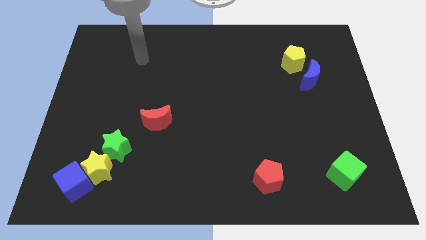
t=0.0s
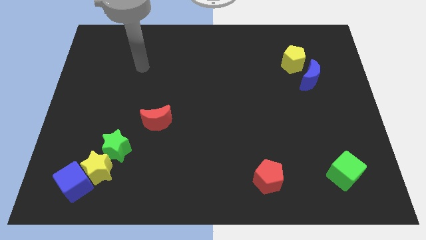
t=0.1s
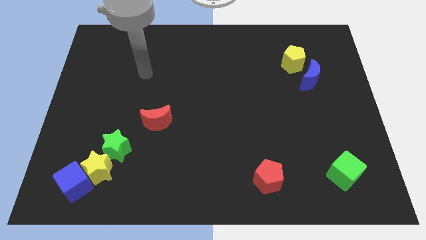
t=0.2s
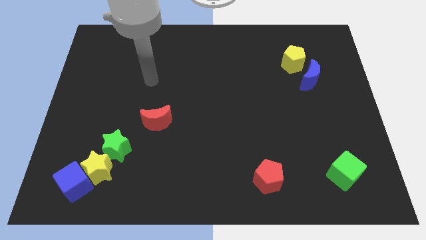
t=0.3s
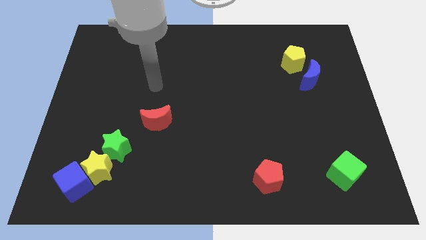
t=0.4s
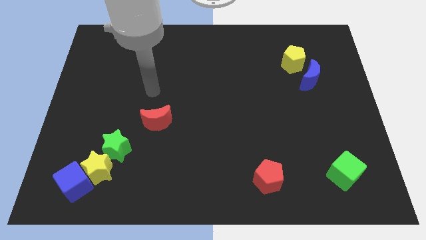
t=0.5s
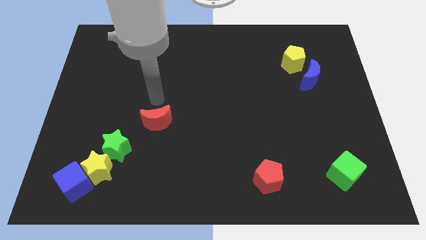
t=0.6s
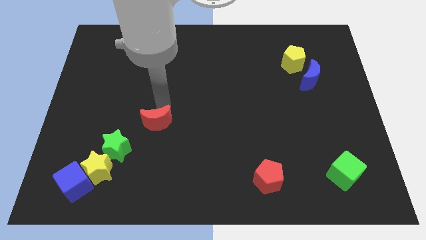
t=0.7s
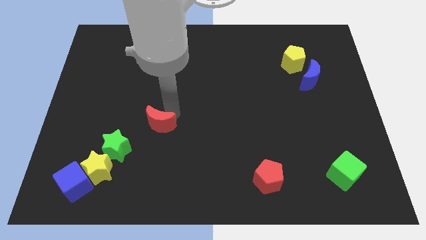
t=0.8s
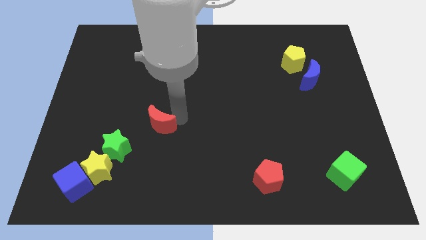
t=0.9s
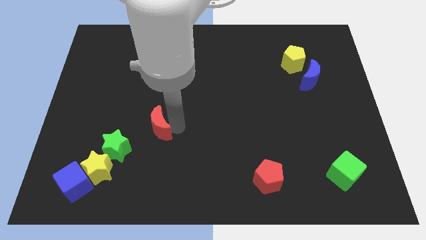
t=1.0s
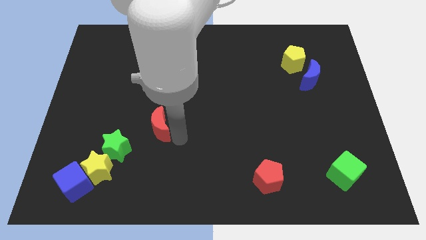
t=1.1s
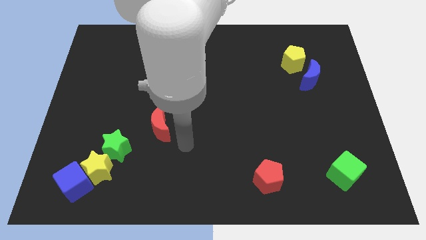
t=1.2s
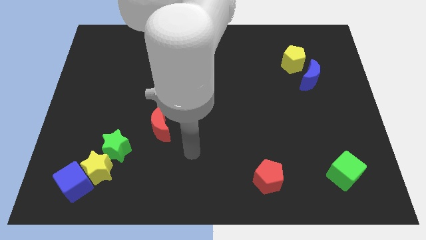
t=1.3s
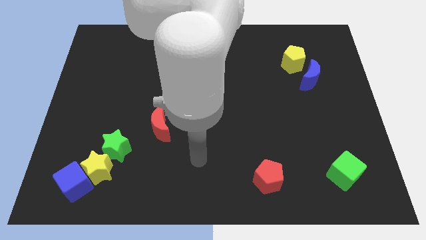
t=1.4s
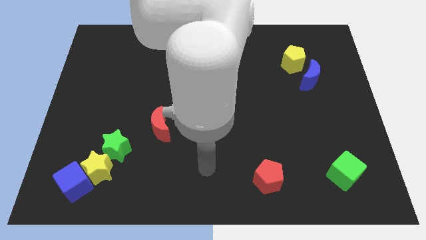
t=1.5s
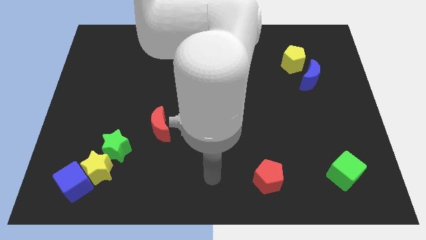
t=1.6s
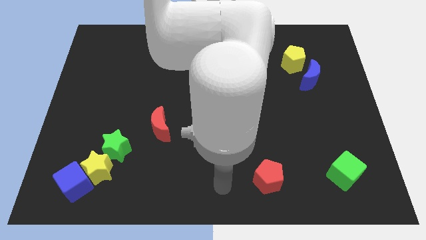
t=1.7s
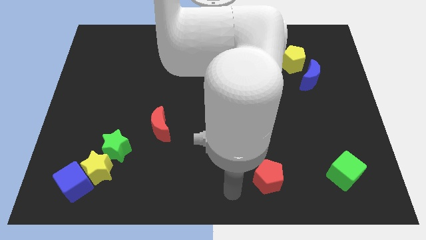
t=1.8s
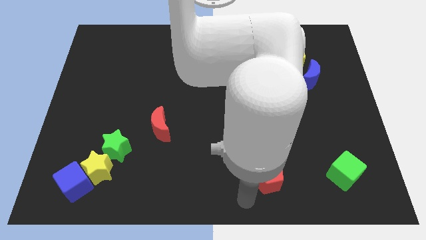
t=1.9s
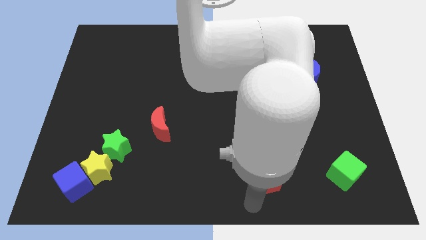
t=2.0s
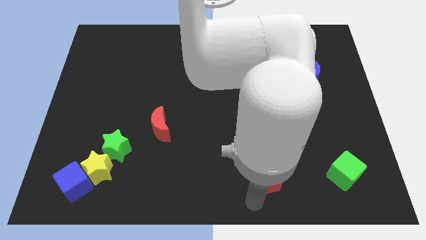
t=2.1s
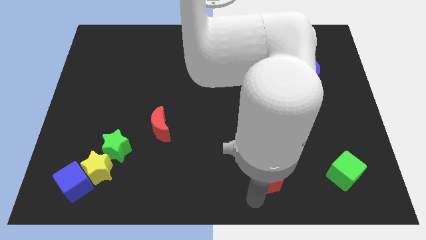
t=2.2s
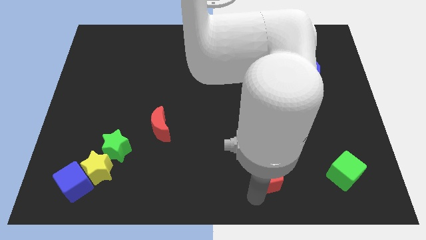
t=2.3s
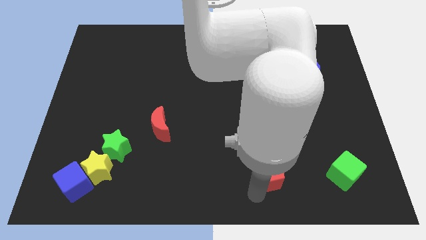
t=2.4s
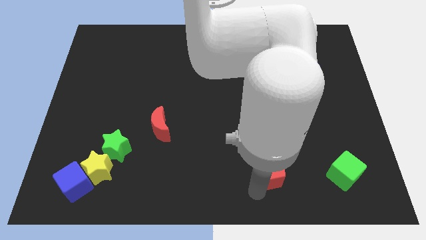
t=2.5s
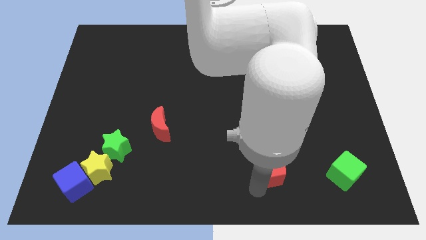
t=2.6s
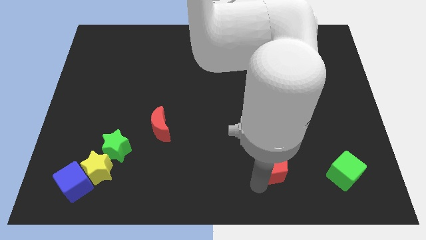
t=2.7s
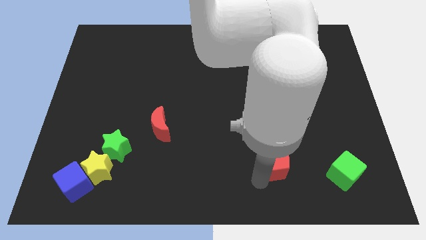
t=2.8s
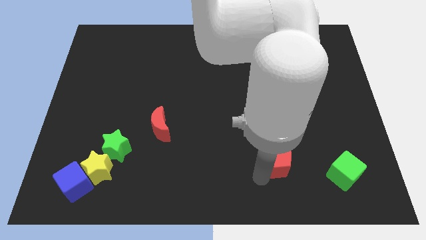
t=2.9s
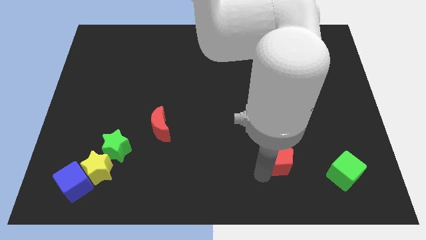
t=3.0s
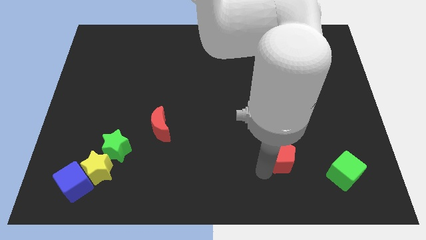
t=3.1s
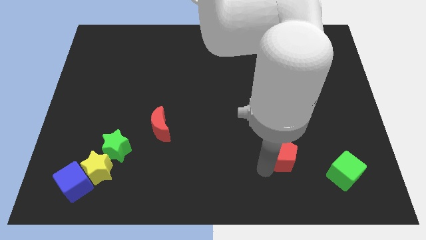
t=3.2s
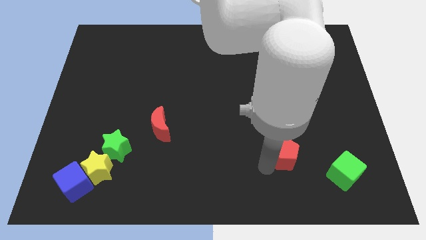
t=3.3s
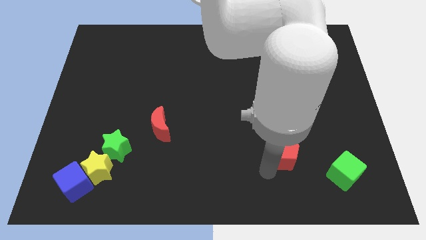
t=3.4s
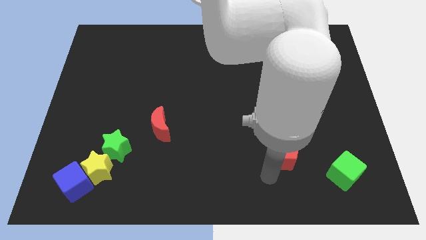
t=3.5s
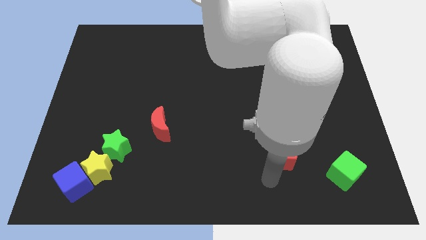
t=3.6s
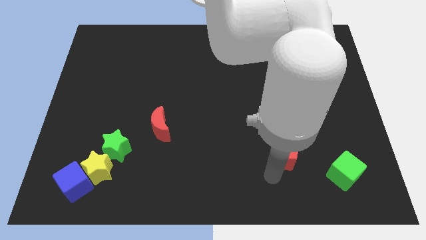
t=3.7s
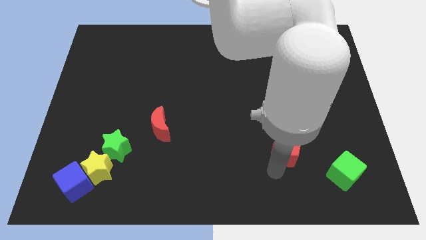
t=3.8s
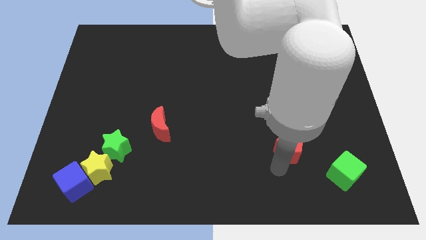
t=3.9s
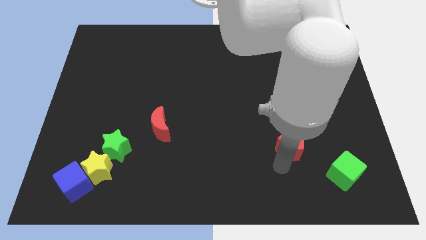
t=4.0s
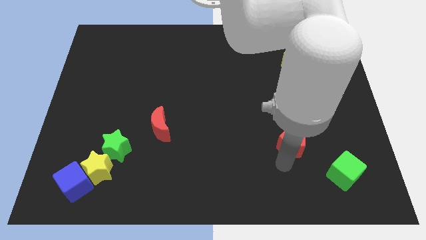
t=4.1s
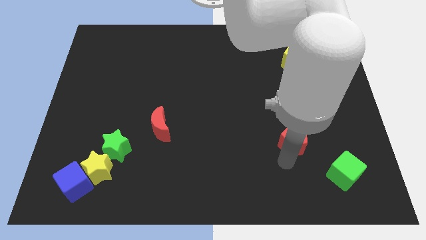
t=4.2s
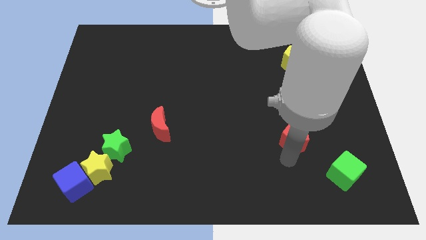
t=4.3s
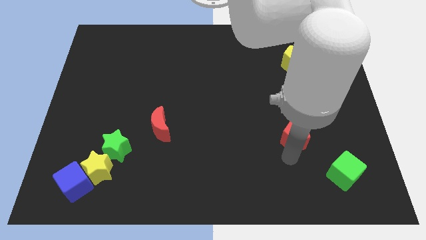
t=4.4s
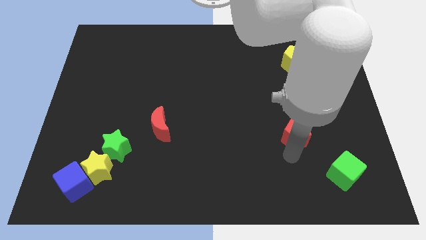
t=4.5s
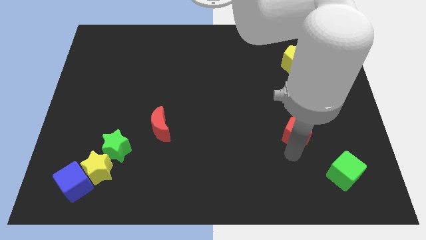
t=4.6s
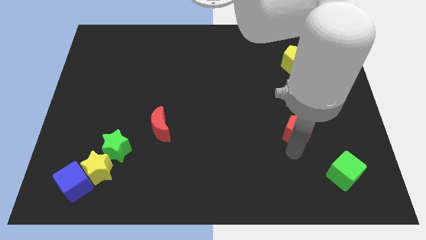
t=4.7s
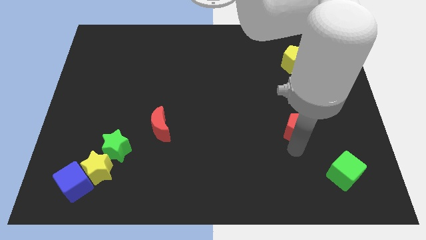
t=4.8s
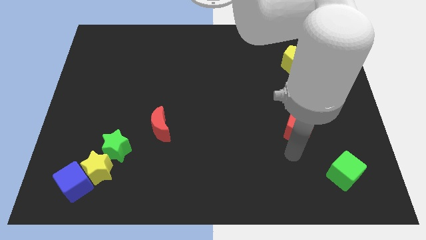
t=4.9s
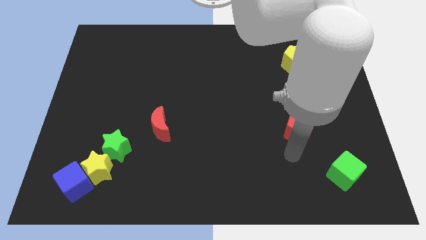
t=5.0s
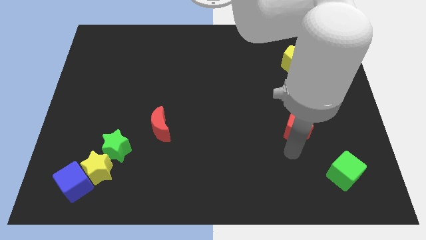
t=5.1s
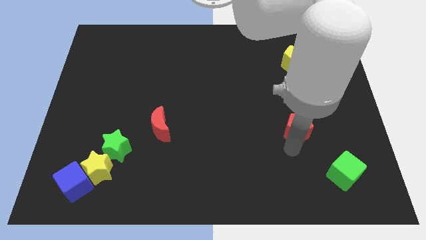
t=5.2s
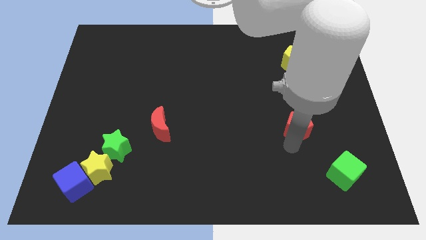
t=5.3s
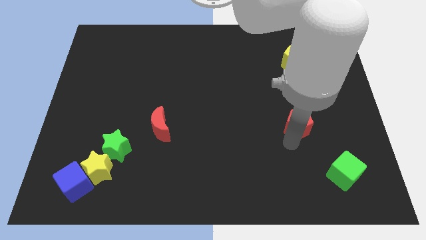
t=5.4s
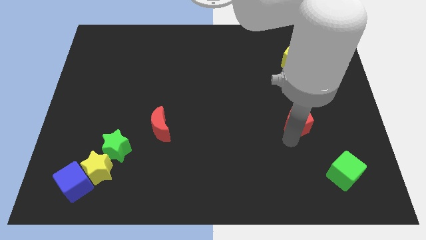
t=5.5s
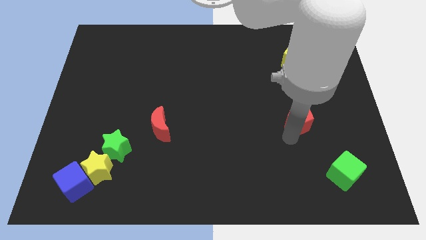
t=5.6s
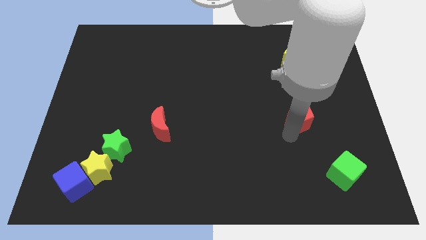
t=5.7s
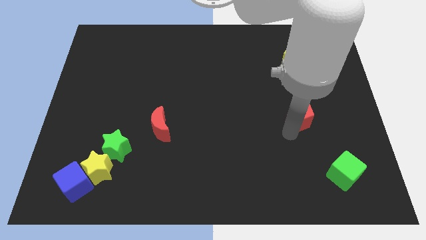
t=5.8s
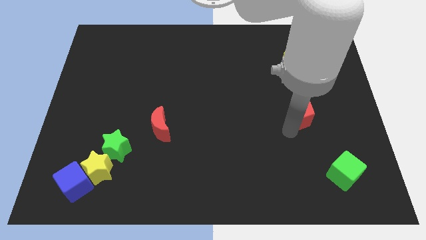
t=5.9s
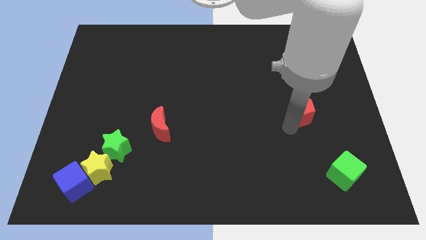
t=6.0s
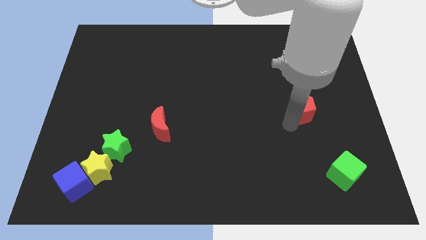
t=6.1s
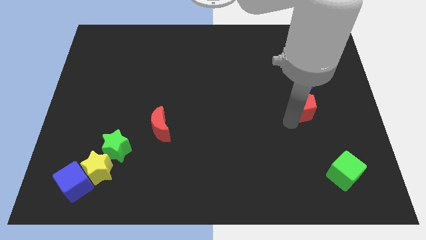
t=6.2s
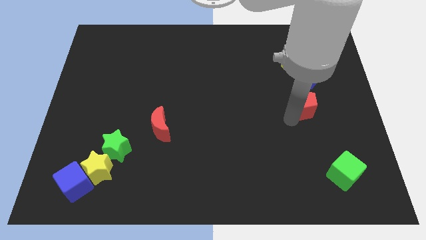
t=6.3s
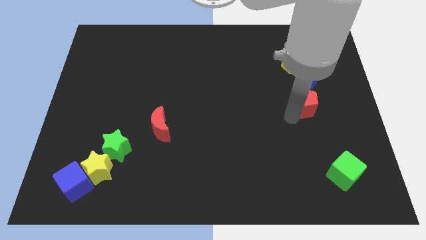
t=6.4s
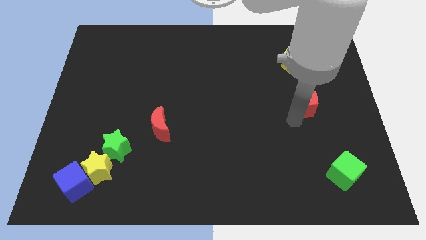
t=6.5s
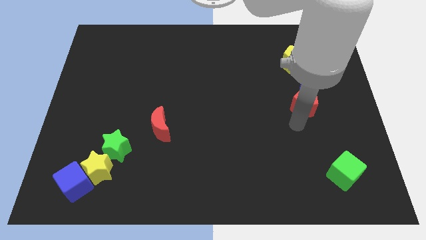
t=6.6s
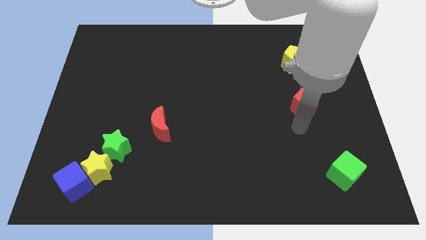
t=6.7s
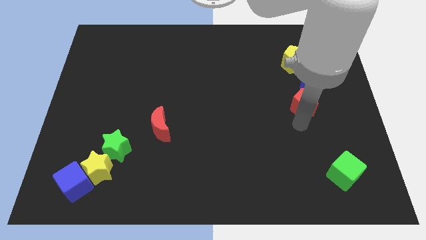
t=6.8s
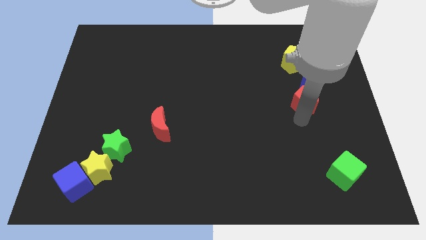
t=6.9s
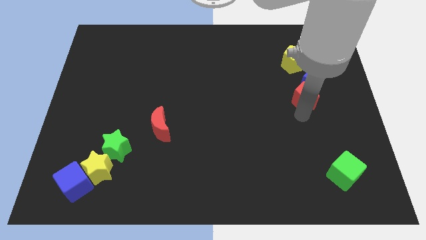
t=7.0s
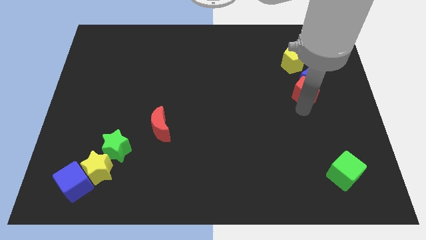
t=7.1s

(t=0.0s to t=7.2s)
put the red pentagon towards the blue moon

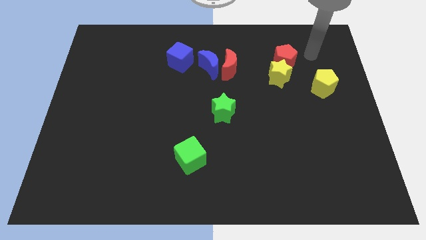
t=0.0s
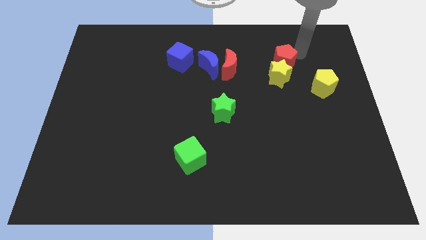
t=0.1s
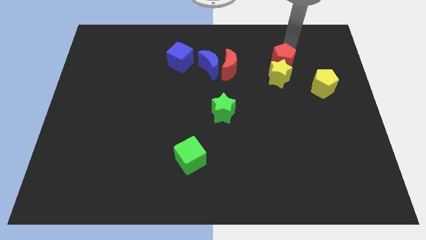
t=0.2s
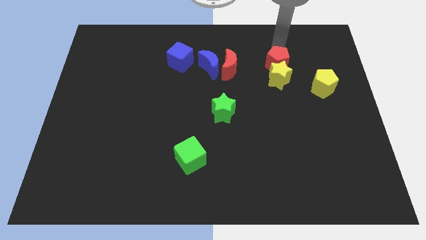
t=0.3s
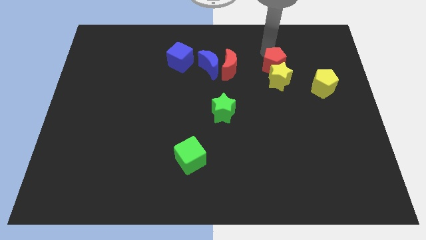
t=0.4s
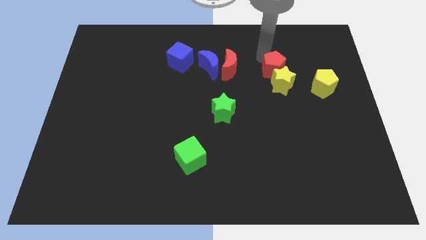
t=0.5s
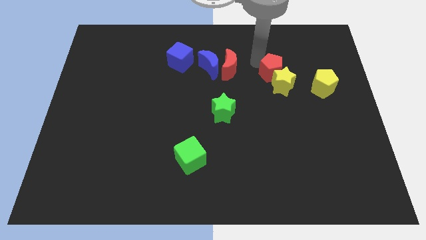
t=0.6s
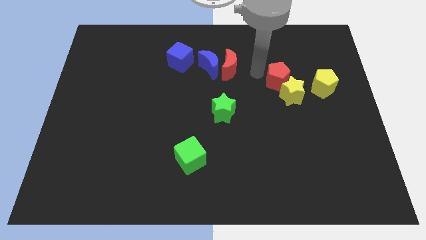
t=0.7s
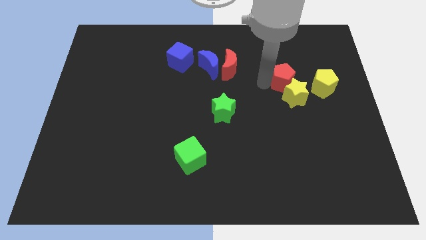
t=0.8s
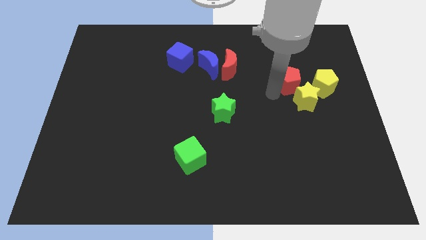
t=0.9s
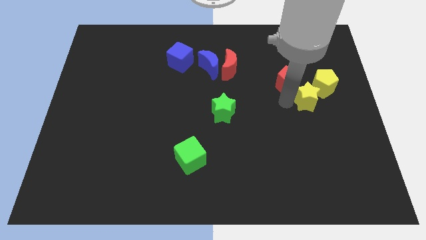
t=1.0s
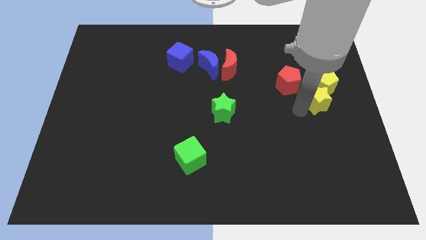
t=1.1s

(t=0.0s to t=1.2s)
push the yellow star to the yellow pentagon
